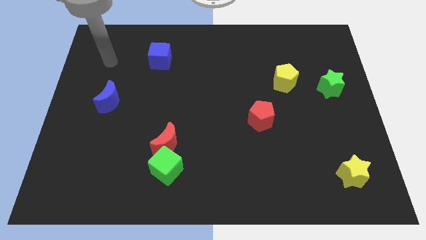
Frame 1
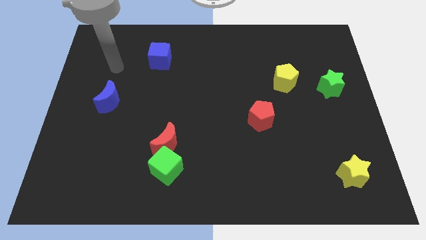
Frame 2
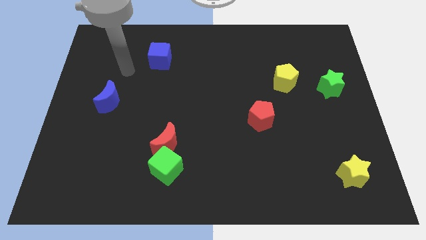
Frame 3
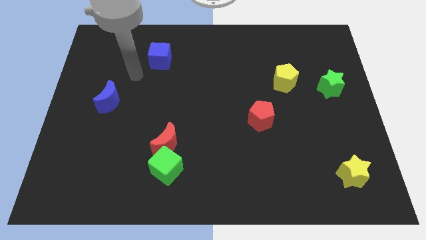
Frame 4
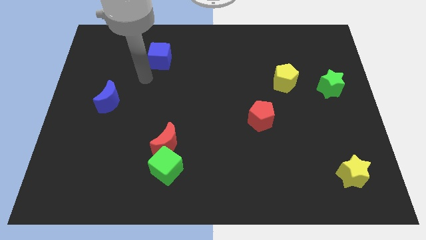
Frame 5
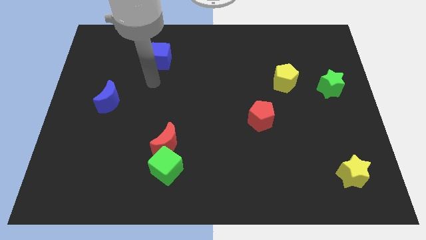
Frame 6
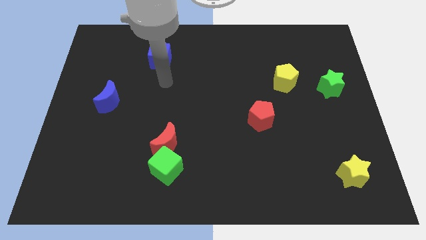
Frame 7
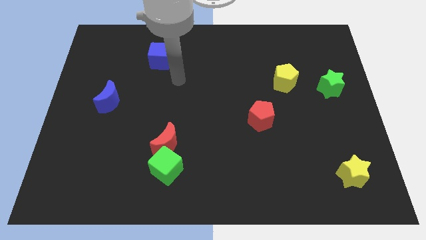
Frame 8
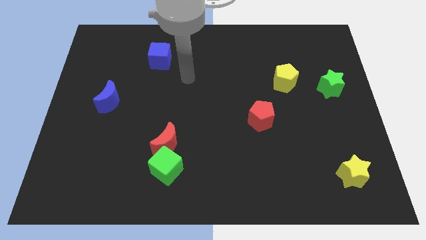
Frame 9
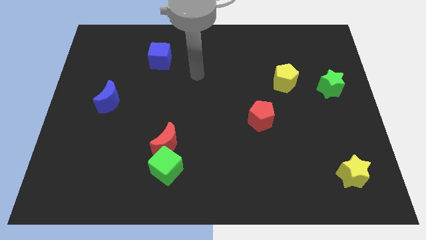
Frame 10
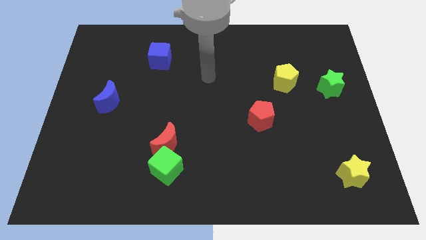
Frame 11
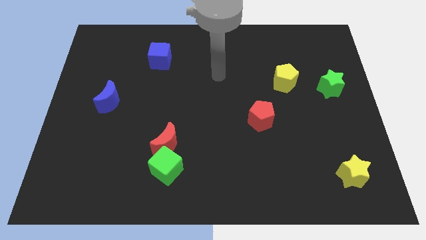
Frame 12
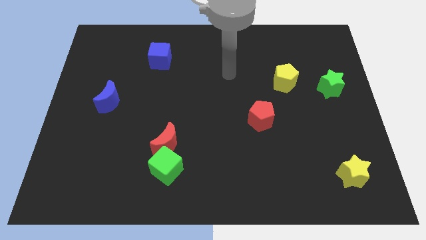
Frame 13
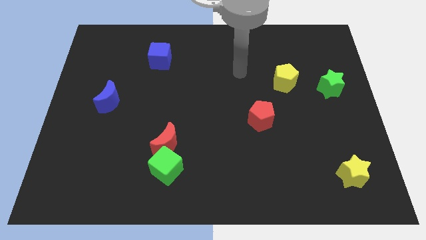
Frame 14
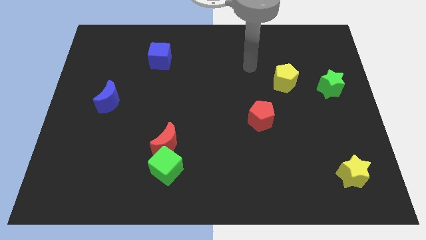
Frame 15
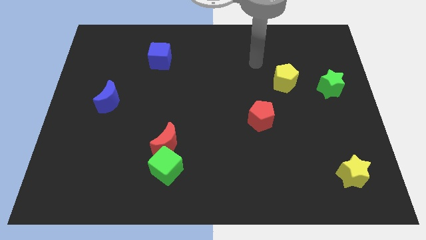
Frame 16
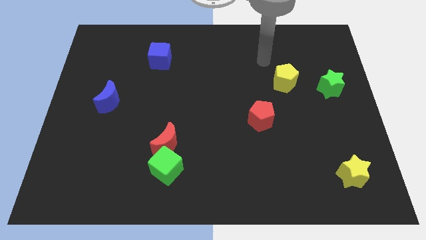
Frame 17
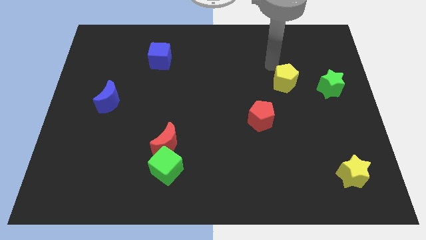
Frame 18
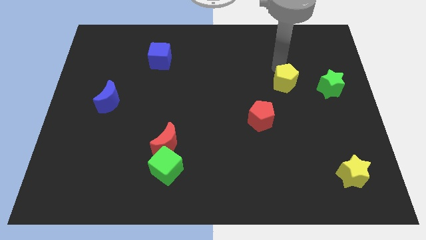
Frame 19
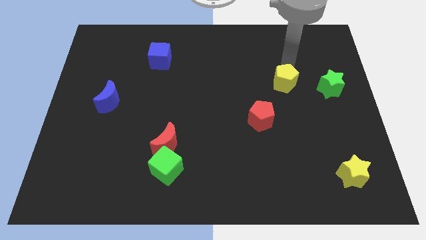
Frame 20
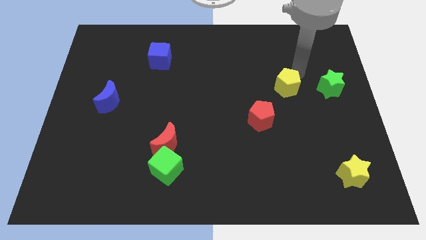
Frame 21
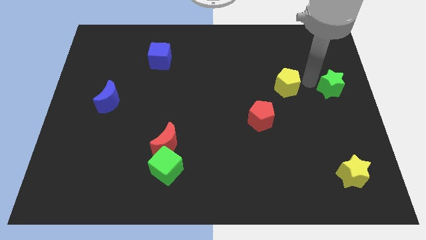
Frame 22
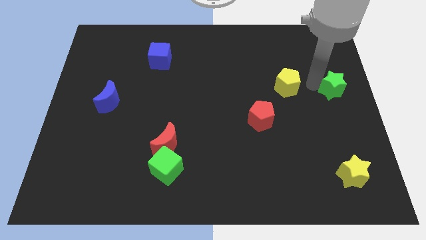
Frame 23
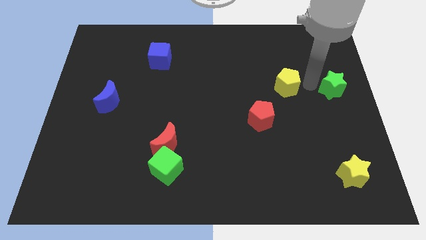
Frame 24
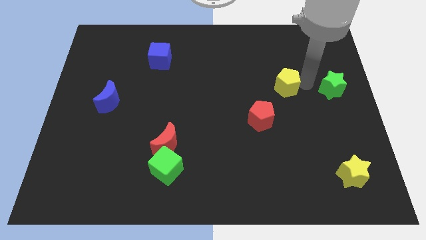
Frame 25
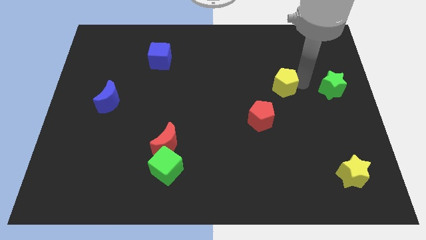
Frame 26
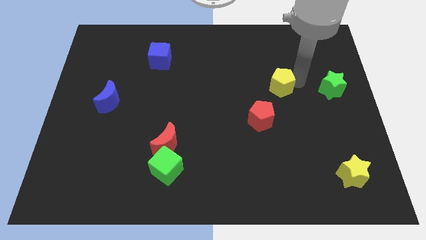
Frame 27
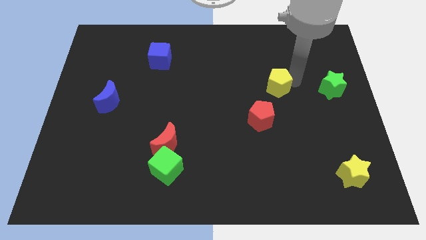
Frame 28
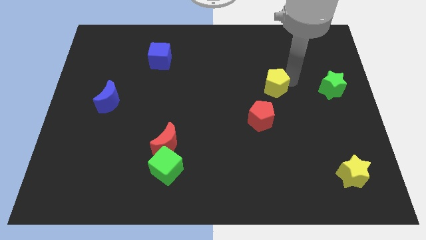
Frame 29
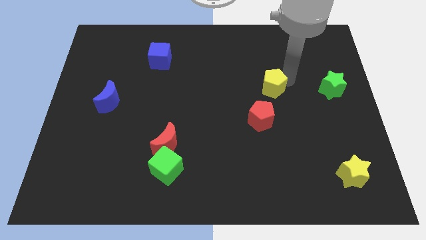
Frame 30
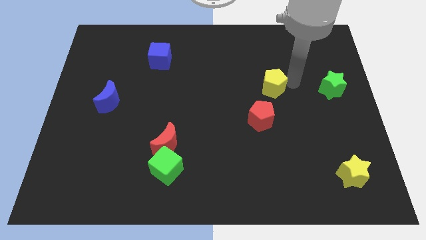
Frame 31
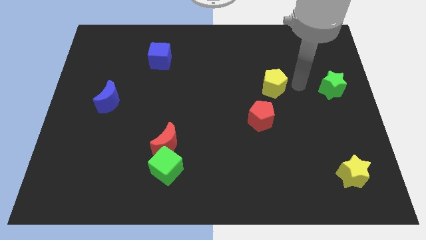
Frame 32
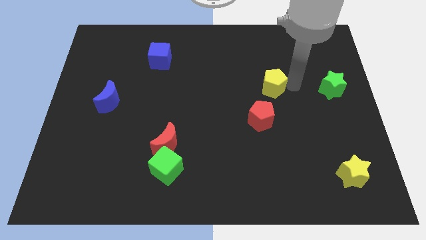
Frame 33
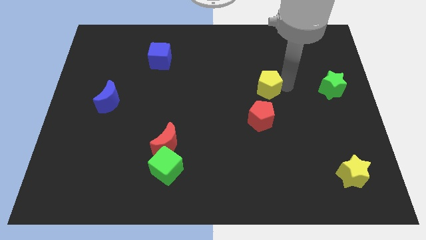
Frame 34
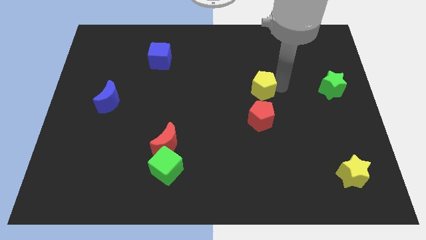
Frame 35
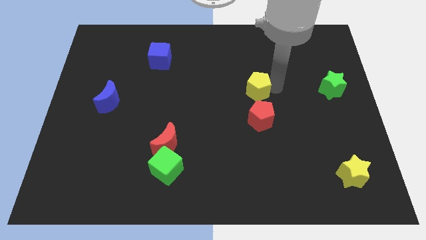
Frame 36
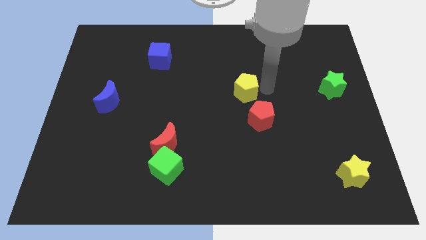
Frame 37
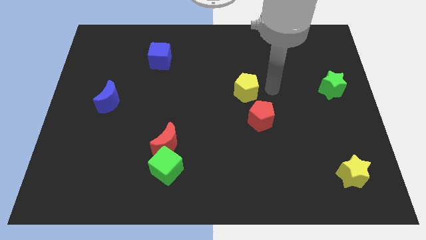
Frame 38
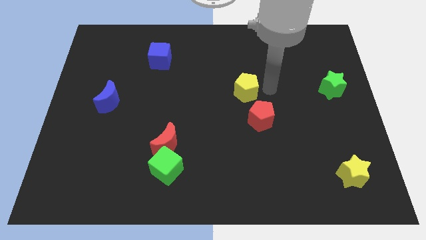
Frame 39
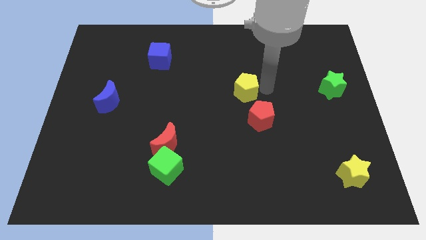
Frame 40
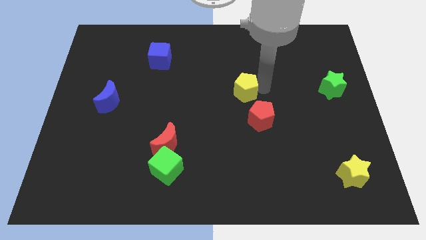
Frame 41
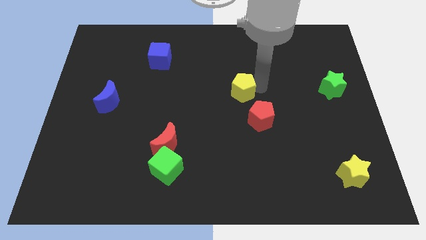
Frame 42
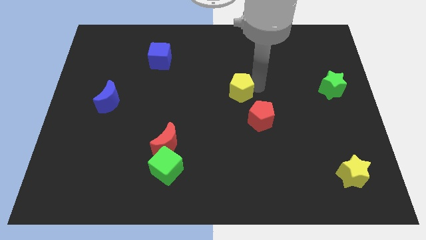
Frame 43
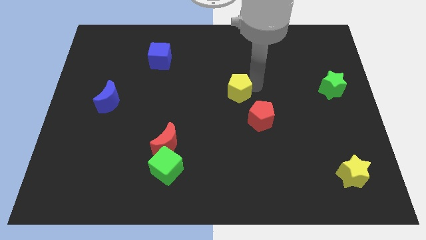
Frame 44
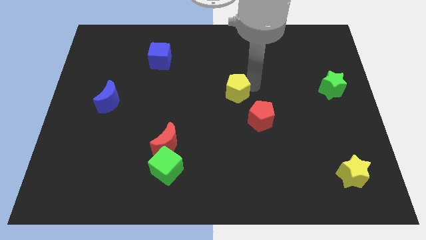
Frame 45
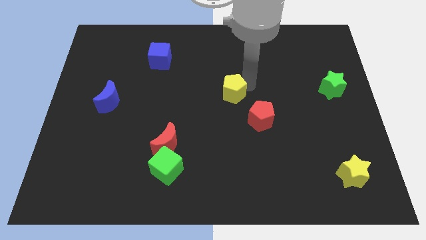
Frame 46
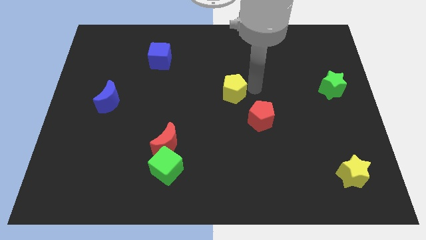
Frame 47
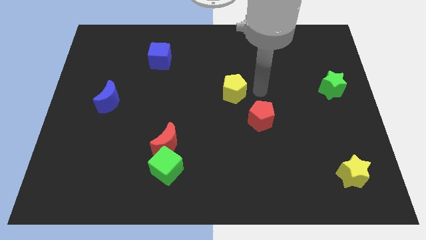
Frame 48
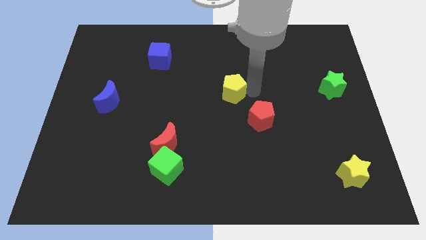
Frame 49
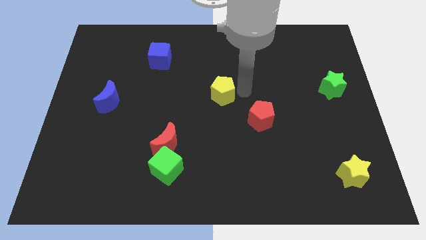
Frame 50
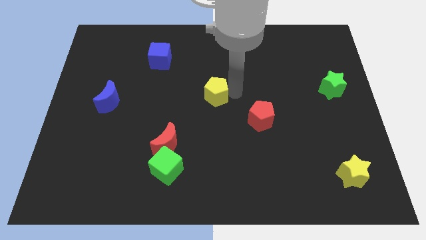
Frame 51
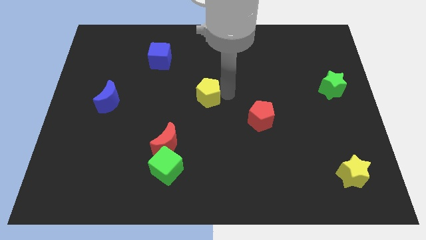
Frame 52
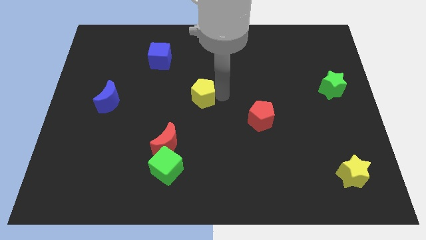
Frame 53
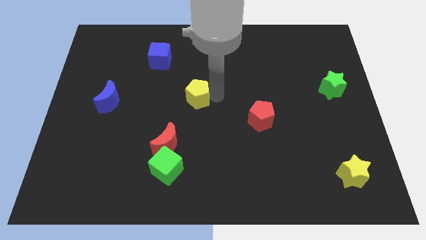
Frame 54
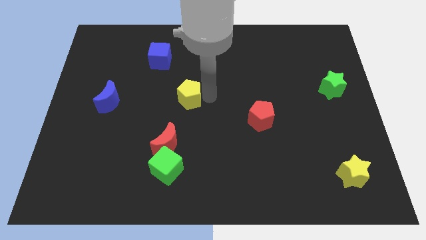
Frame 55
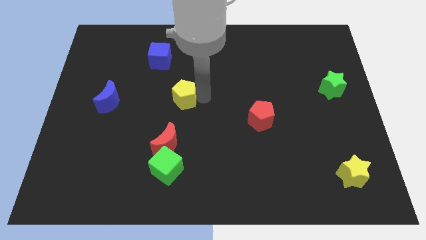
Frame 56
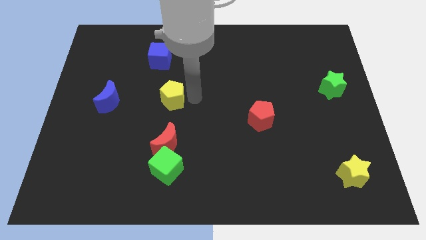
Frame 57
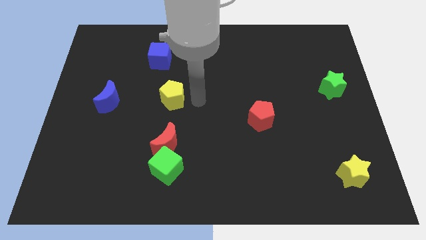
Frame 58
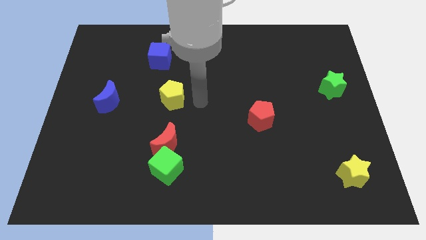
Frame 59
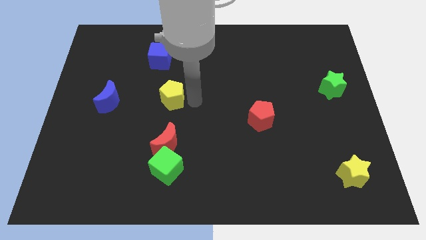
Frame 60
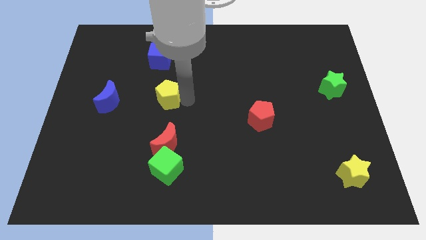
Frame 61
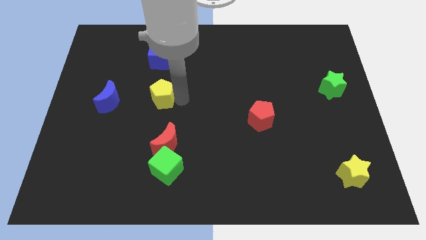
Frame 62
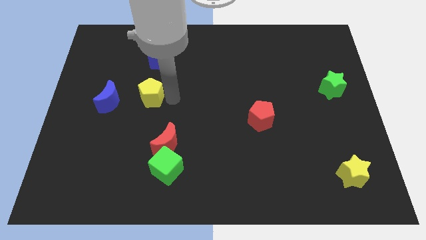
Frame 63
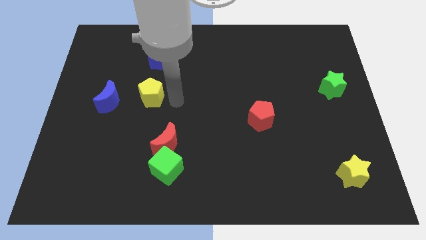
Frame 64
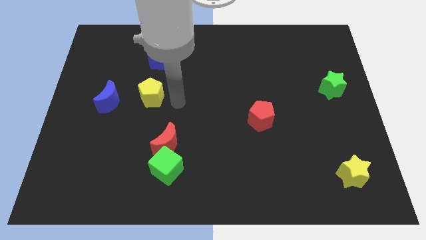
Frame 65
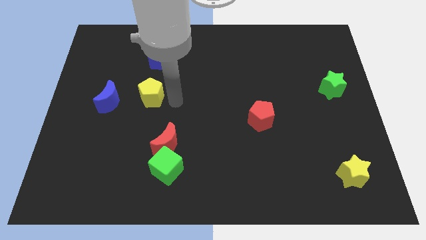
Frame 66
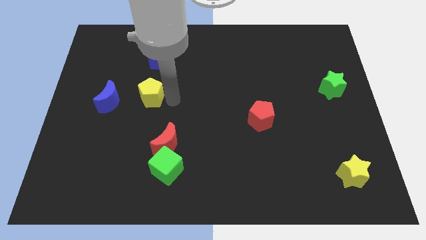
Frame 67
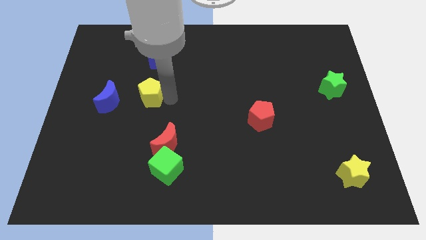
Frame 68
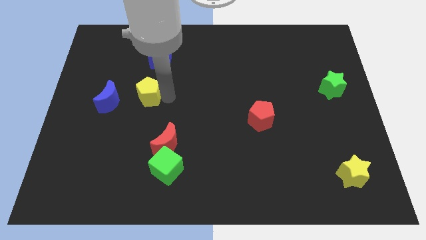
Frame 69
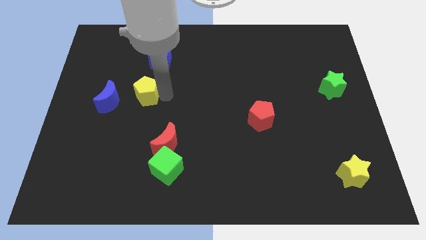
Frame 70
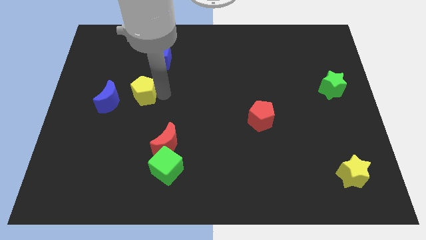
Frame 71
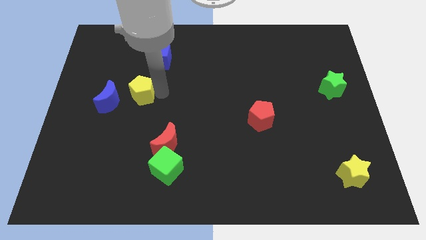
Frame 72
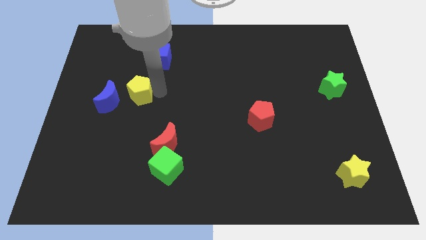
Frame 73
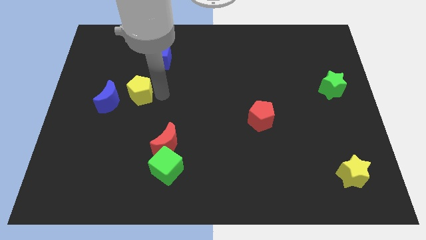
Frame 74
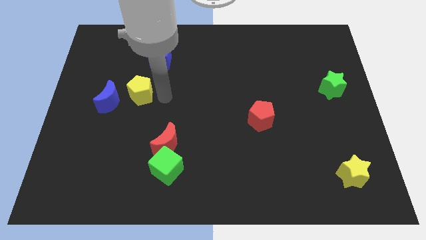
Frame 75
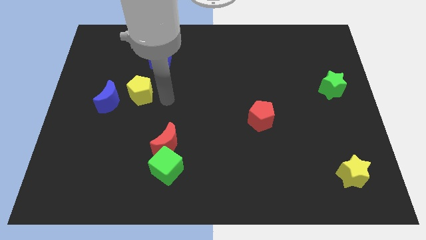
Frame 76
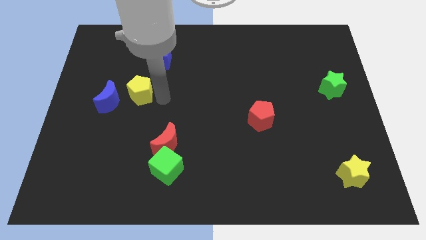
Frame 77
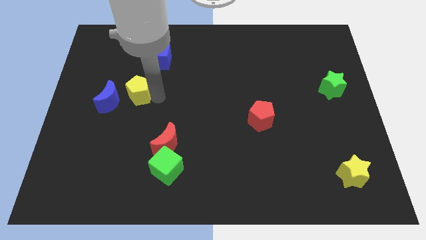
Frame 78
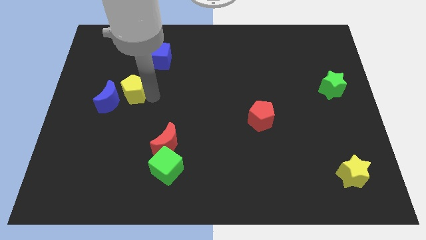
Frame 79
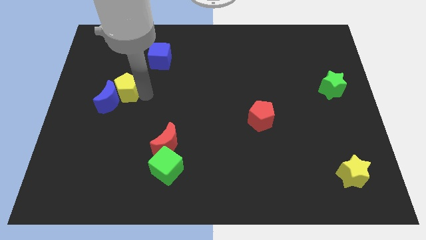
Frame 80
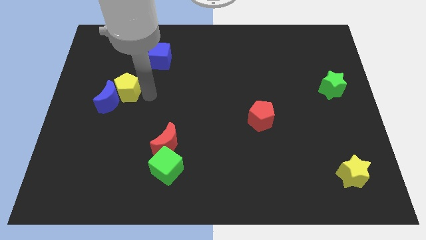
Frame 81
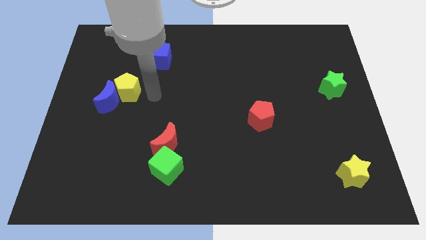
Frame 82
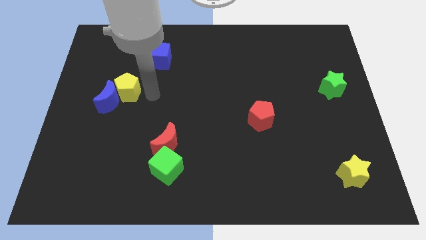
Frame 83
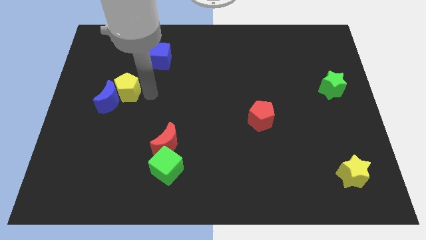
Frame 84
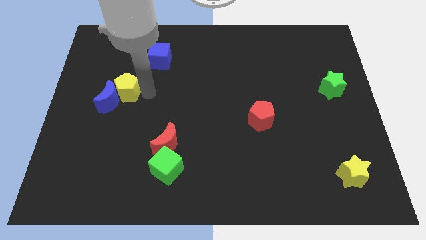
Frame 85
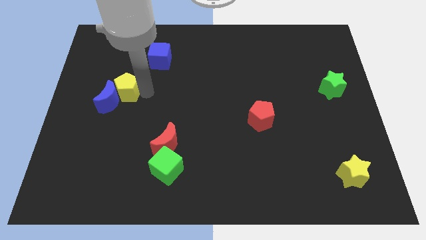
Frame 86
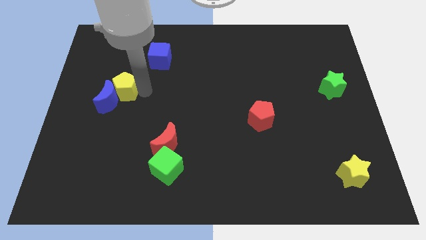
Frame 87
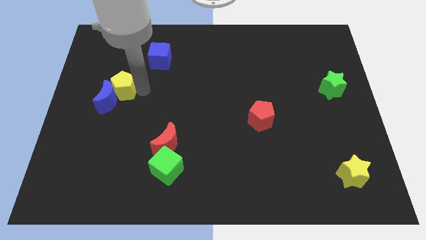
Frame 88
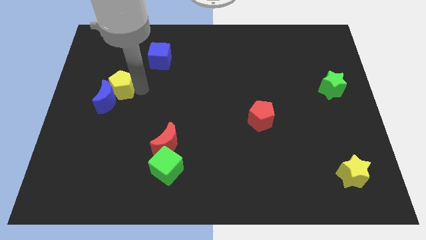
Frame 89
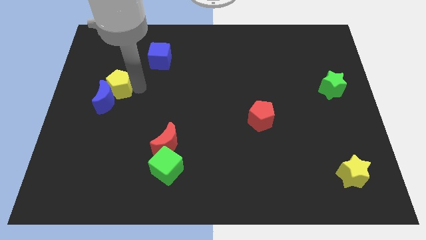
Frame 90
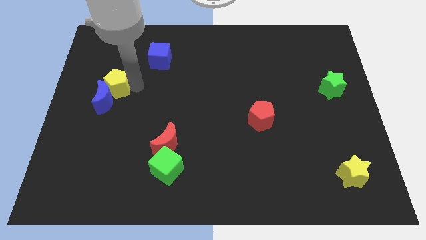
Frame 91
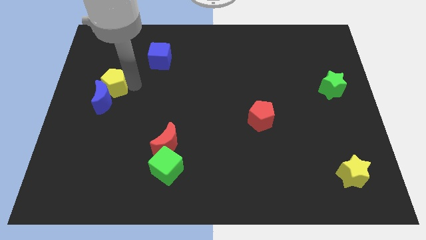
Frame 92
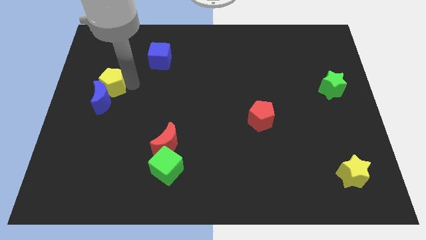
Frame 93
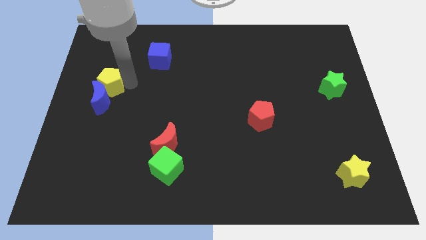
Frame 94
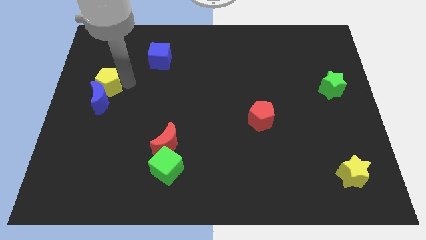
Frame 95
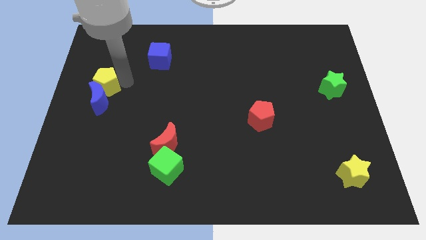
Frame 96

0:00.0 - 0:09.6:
slide the yellow pentagon to the left side of the board
